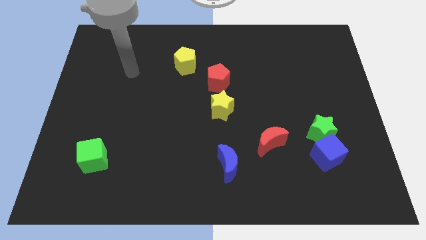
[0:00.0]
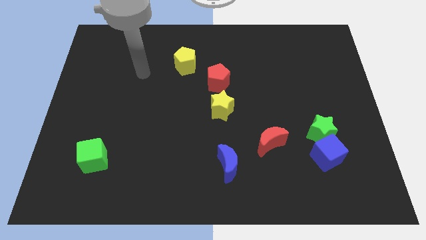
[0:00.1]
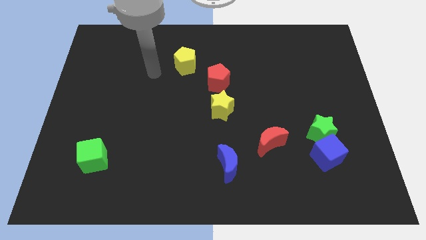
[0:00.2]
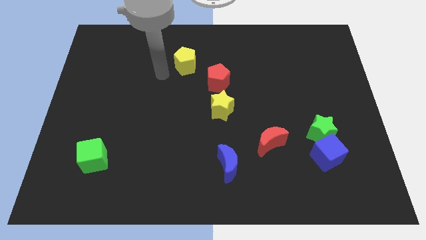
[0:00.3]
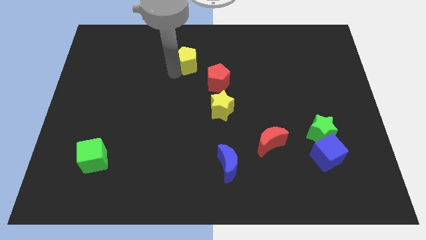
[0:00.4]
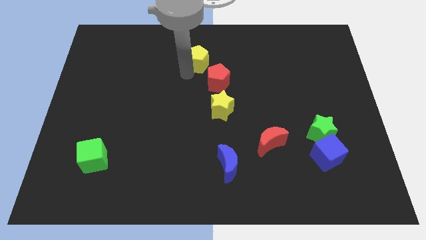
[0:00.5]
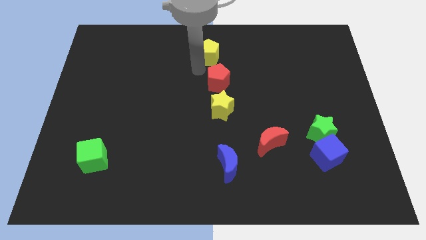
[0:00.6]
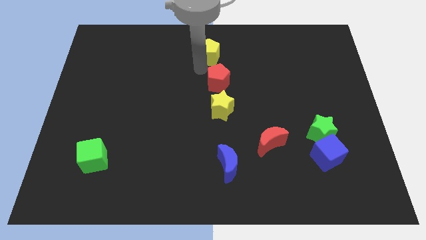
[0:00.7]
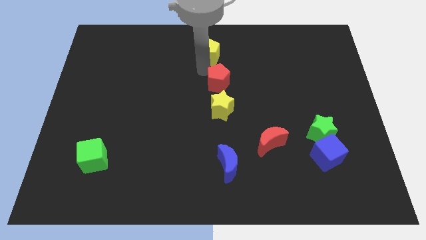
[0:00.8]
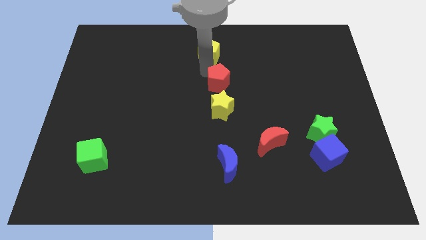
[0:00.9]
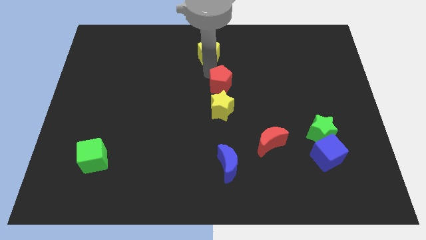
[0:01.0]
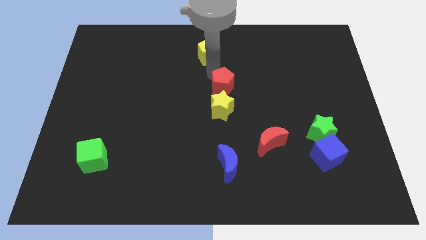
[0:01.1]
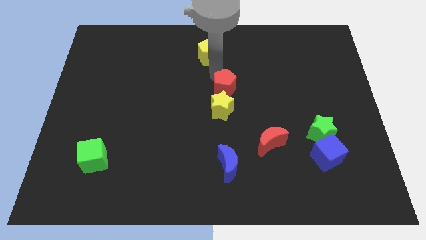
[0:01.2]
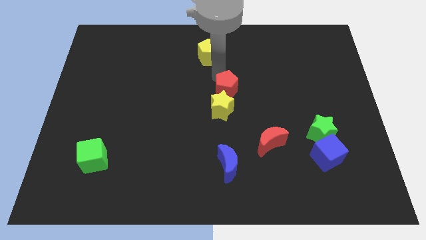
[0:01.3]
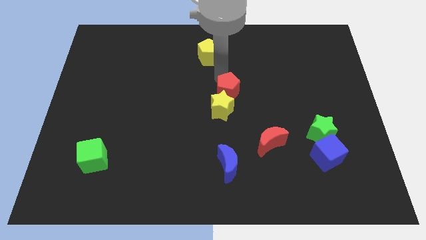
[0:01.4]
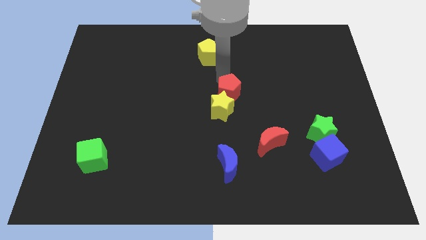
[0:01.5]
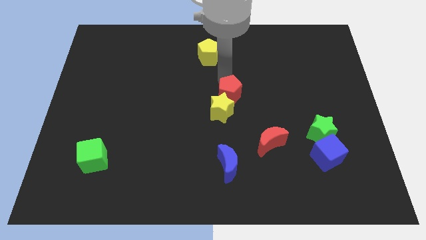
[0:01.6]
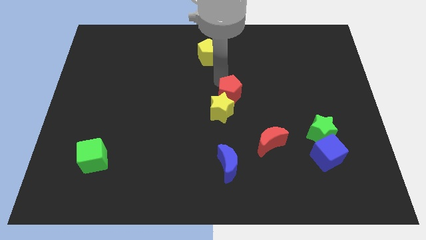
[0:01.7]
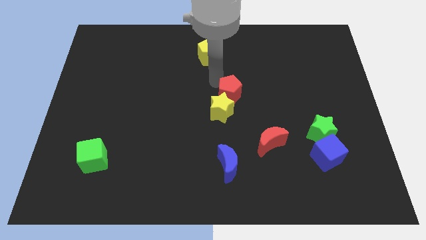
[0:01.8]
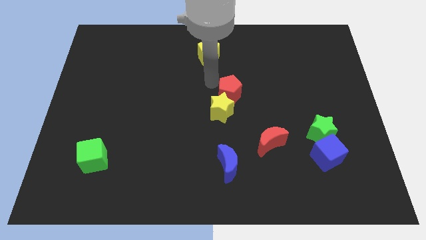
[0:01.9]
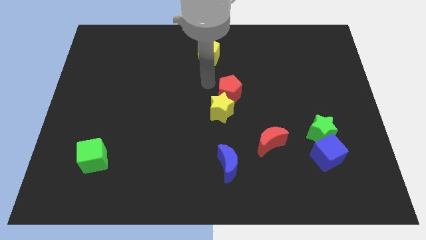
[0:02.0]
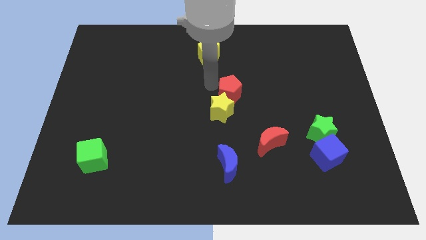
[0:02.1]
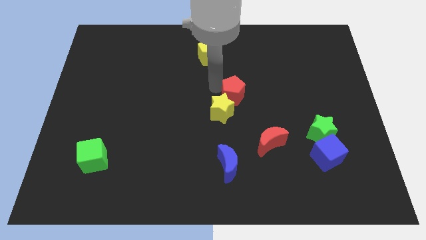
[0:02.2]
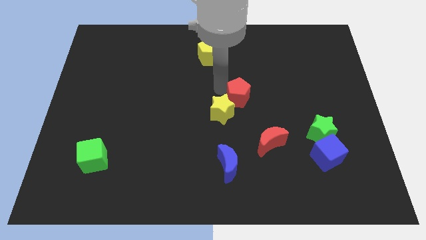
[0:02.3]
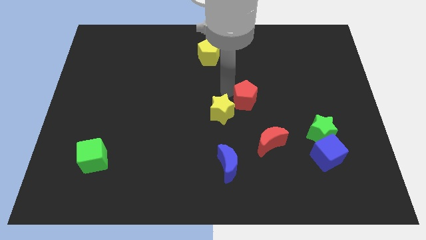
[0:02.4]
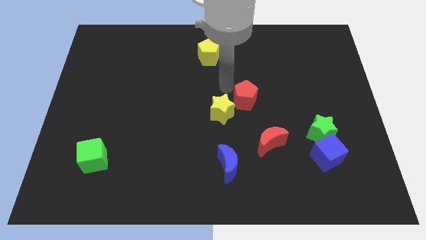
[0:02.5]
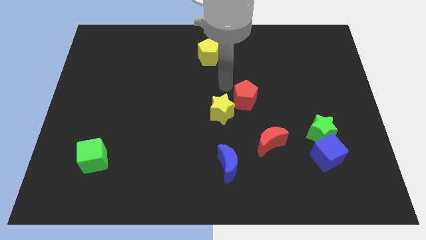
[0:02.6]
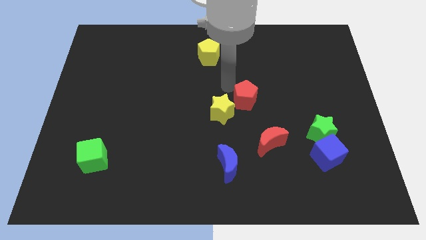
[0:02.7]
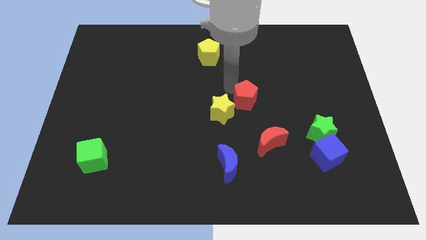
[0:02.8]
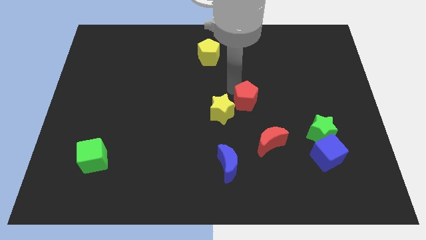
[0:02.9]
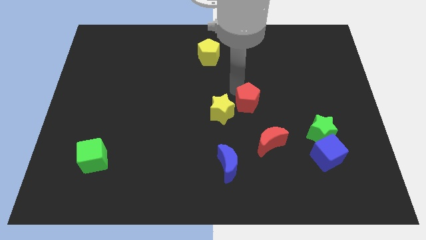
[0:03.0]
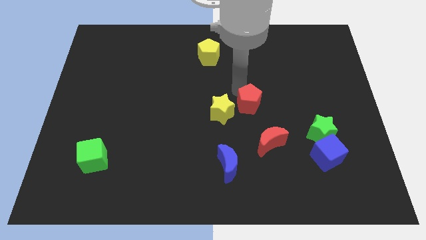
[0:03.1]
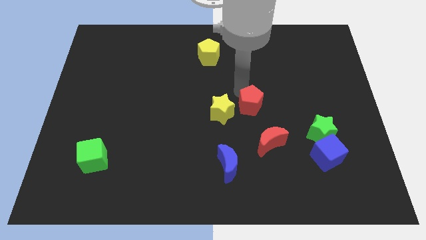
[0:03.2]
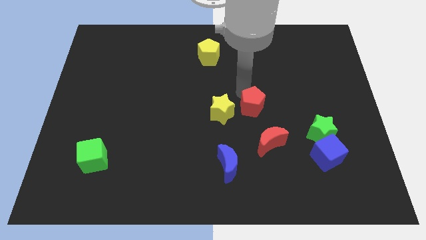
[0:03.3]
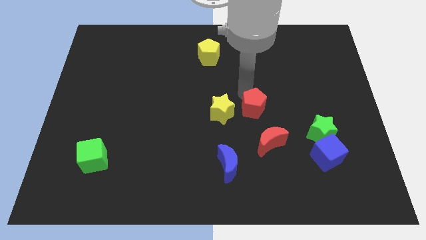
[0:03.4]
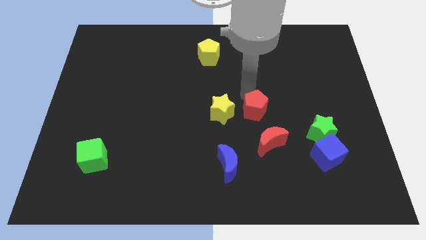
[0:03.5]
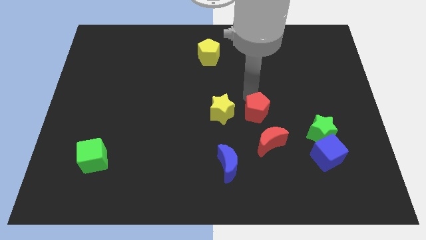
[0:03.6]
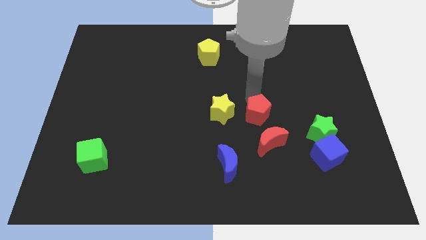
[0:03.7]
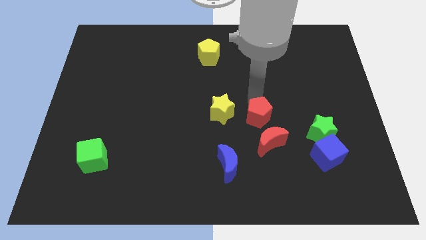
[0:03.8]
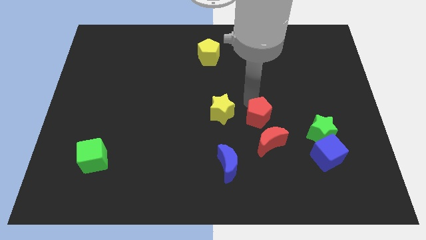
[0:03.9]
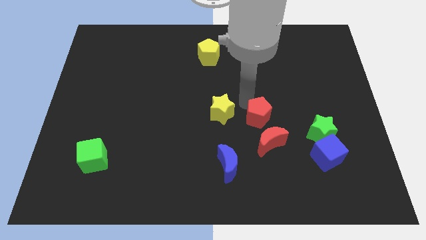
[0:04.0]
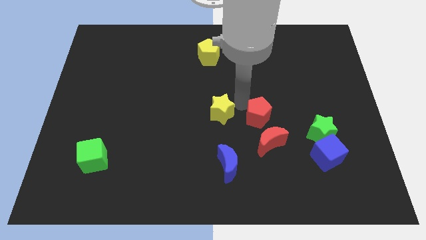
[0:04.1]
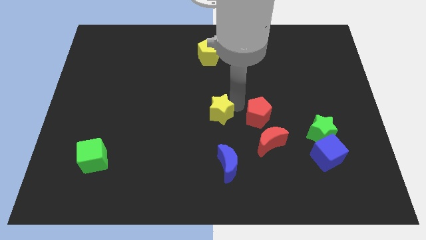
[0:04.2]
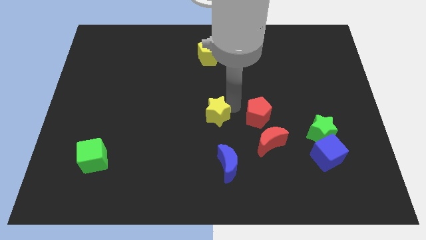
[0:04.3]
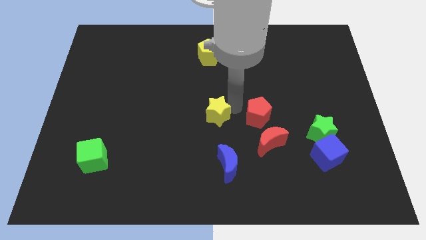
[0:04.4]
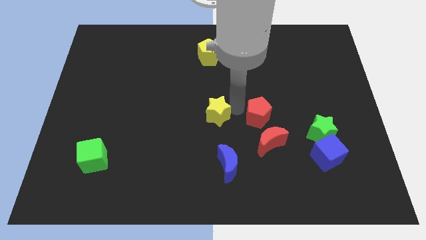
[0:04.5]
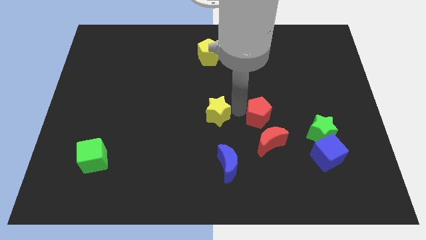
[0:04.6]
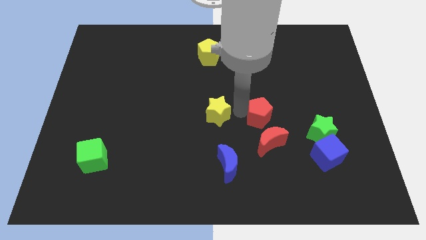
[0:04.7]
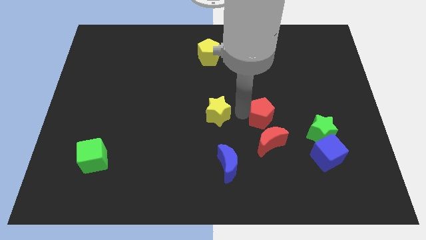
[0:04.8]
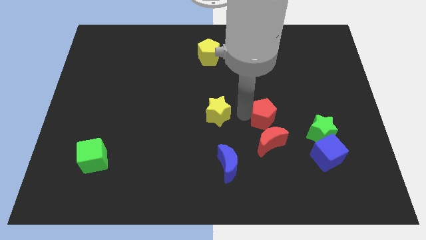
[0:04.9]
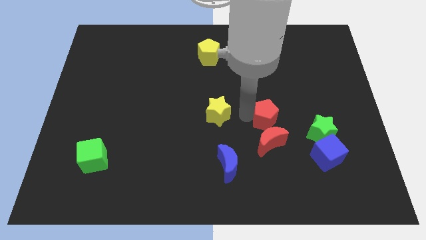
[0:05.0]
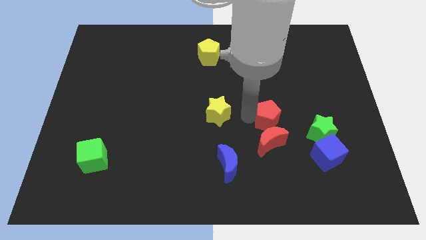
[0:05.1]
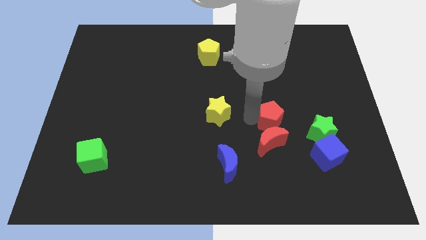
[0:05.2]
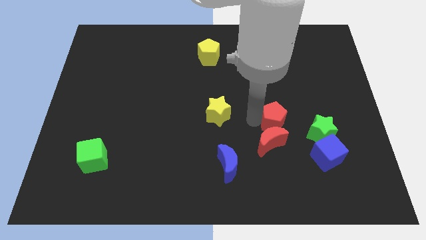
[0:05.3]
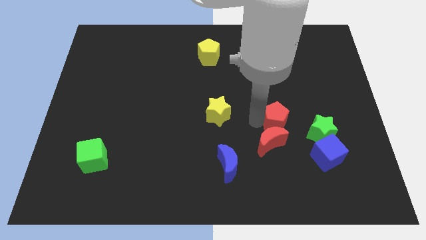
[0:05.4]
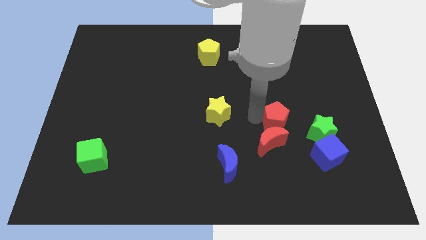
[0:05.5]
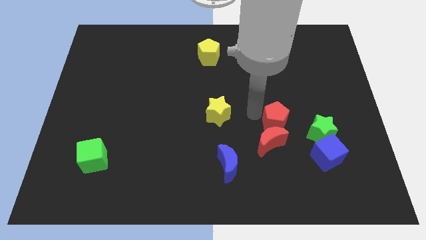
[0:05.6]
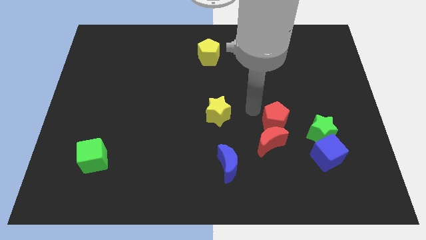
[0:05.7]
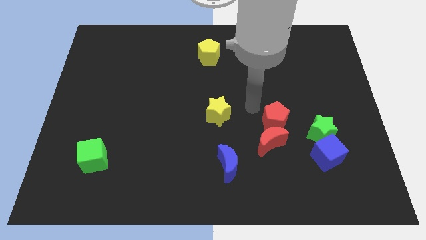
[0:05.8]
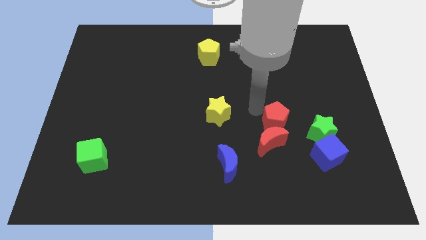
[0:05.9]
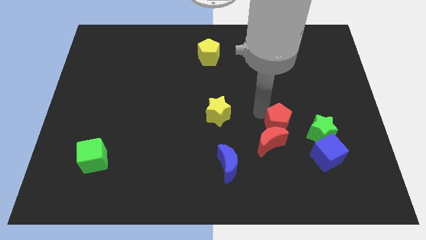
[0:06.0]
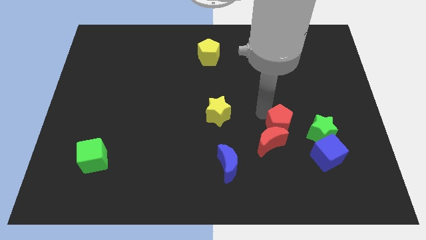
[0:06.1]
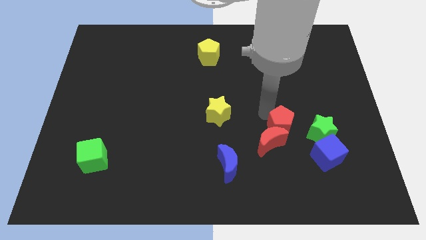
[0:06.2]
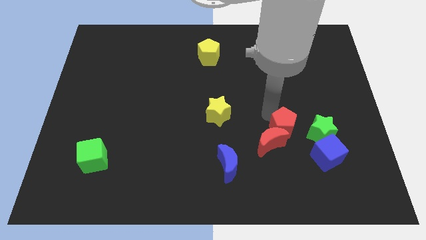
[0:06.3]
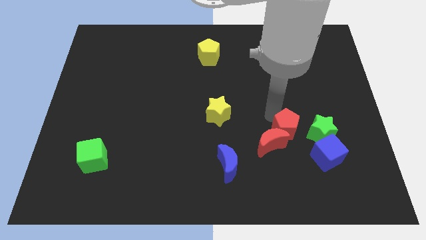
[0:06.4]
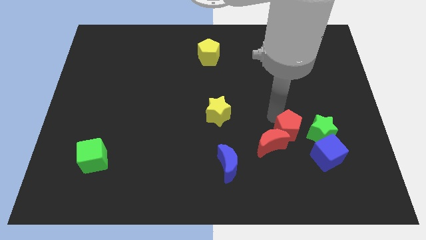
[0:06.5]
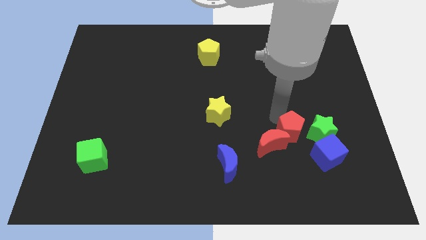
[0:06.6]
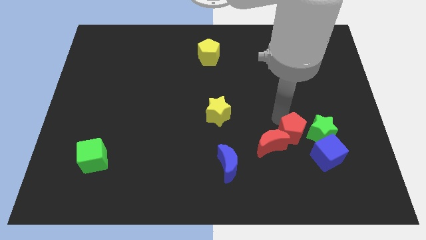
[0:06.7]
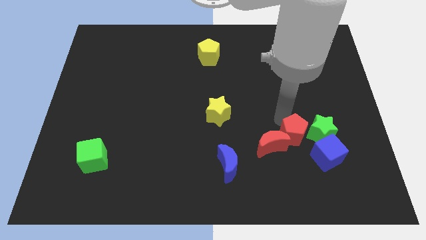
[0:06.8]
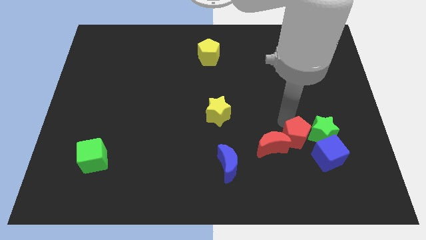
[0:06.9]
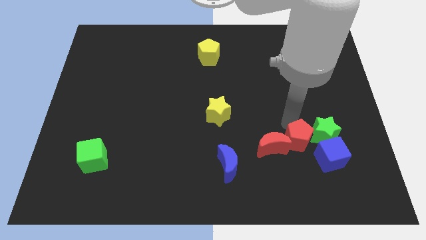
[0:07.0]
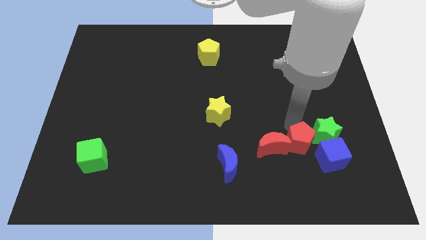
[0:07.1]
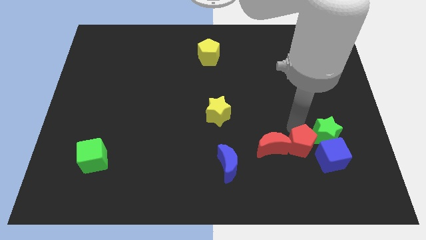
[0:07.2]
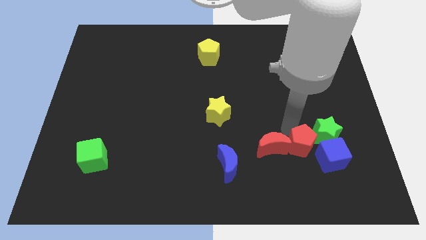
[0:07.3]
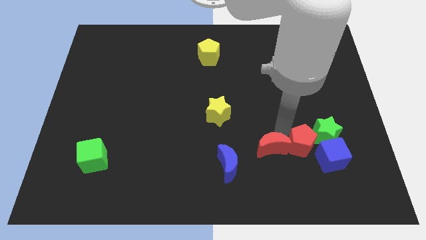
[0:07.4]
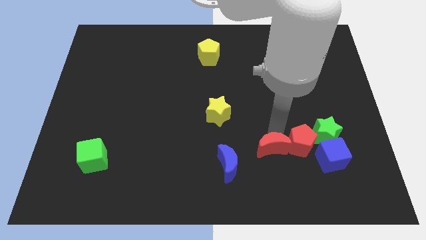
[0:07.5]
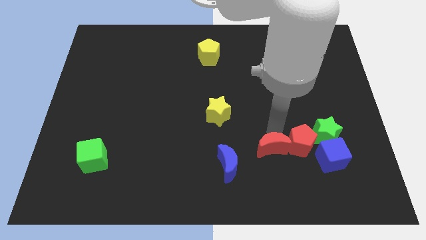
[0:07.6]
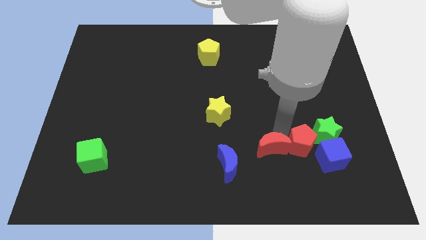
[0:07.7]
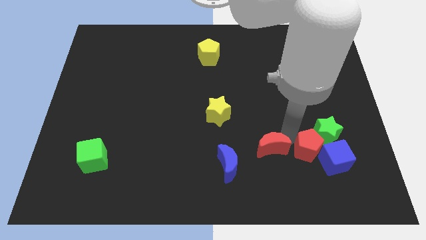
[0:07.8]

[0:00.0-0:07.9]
move the red pentagon next to the blue cube
